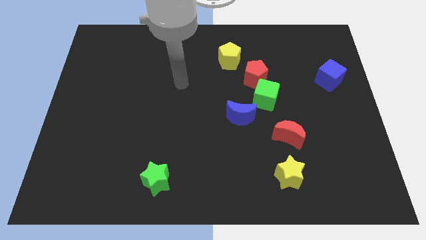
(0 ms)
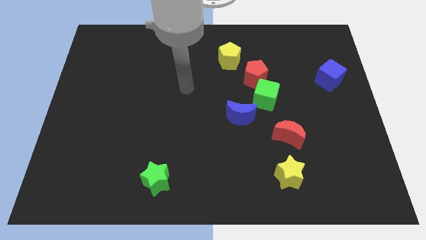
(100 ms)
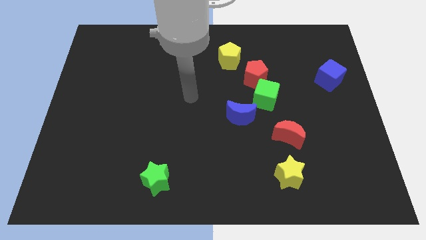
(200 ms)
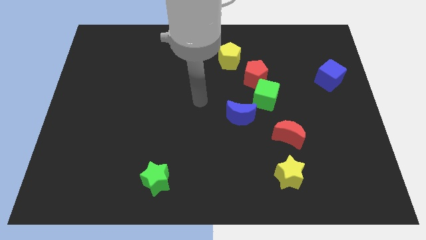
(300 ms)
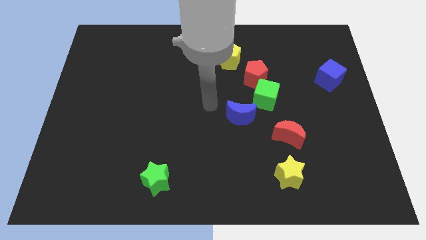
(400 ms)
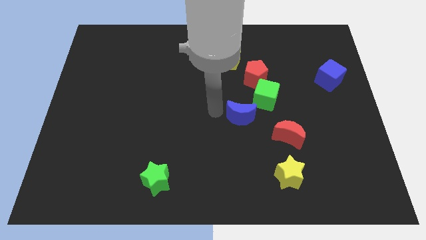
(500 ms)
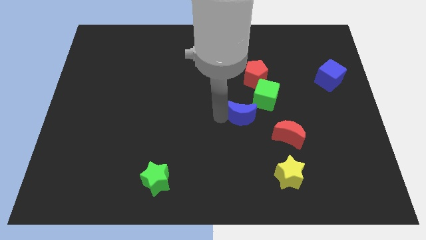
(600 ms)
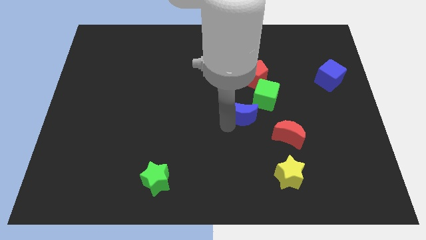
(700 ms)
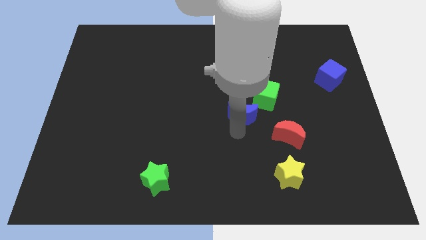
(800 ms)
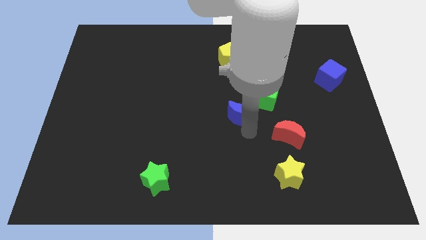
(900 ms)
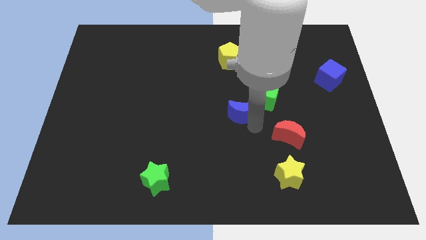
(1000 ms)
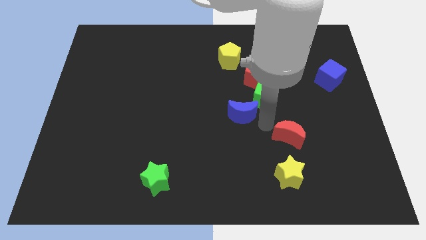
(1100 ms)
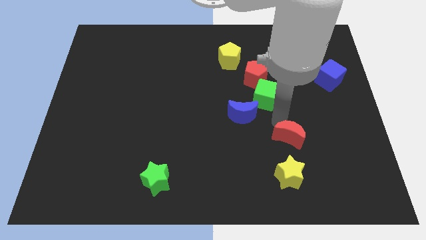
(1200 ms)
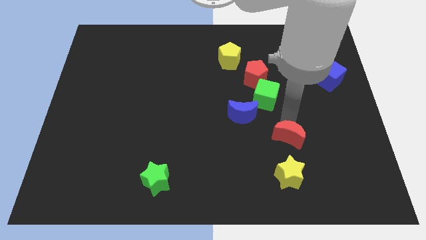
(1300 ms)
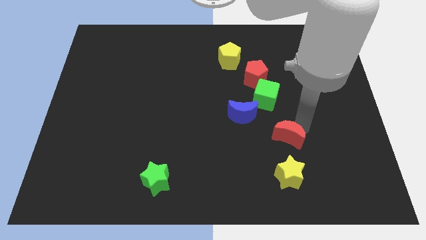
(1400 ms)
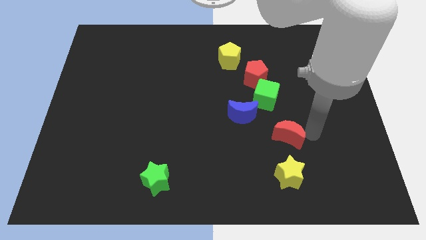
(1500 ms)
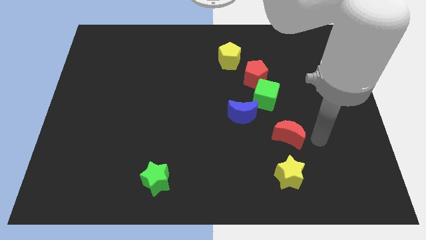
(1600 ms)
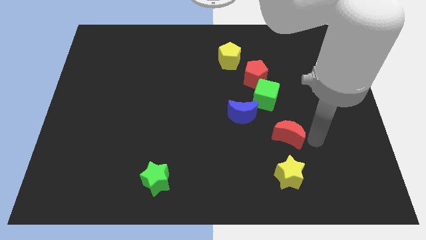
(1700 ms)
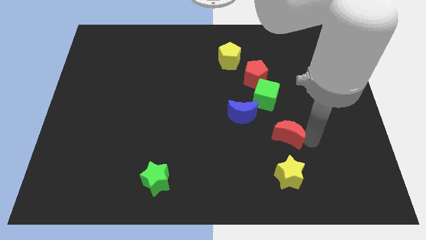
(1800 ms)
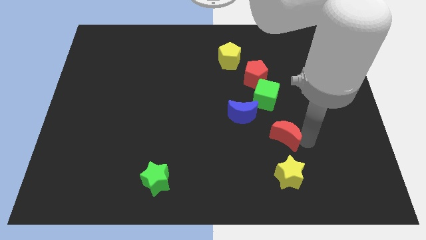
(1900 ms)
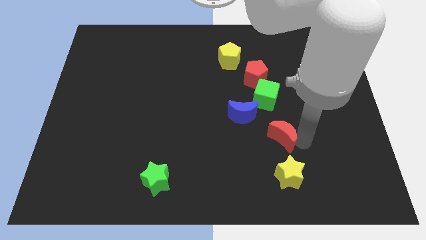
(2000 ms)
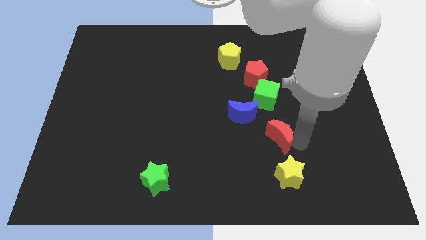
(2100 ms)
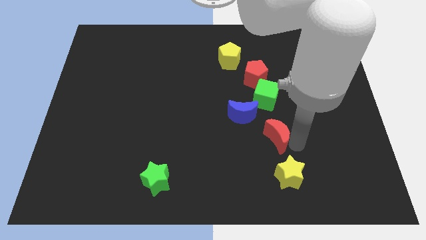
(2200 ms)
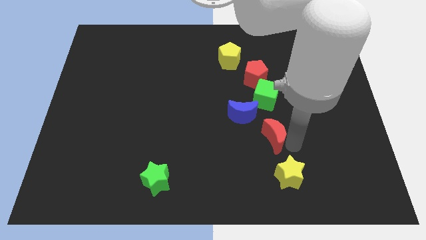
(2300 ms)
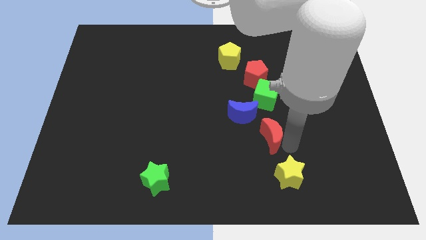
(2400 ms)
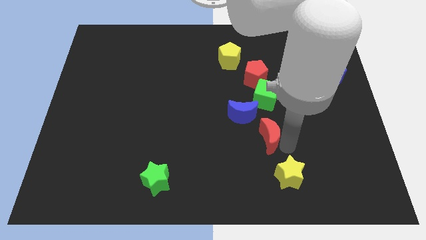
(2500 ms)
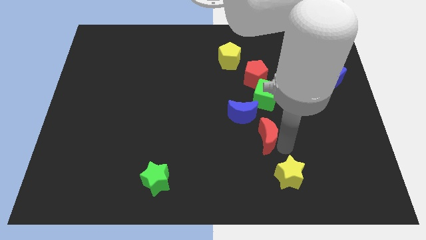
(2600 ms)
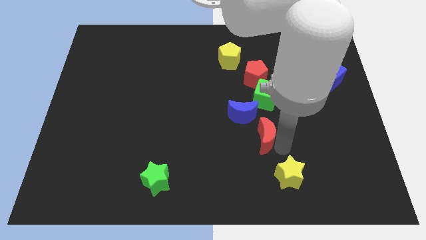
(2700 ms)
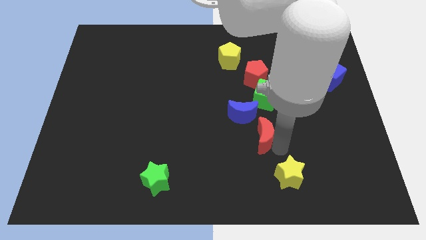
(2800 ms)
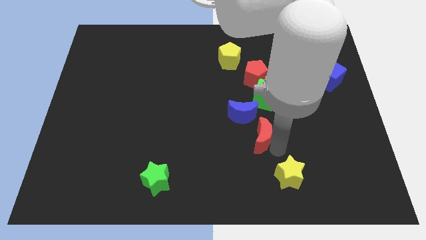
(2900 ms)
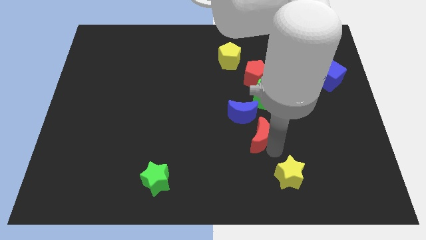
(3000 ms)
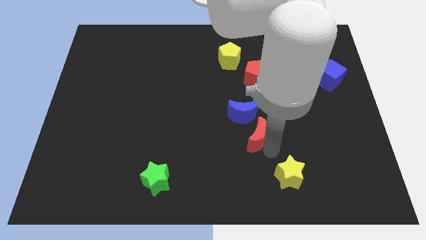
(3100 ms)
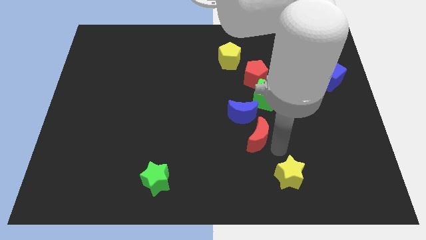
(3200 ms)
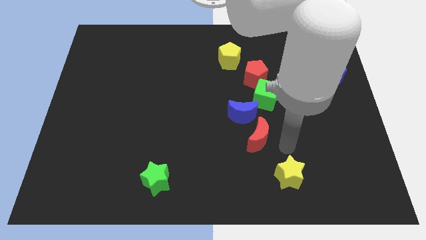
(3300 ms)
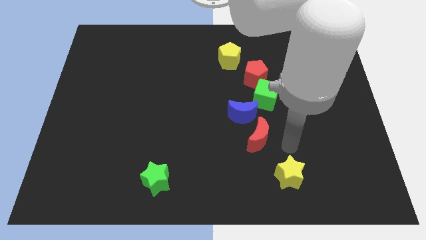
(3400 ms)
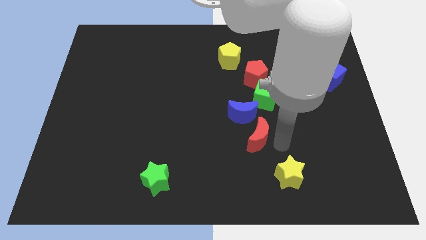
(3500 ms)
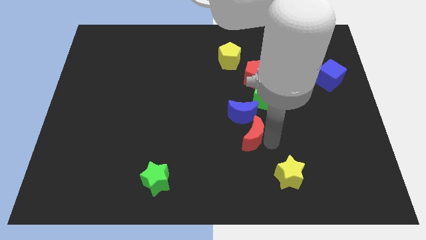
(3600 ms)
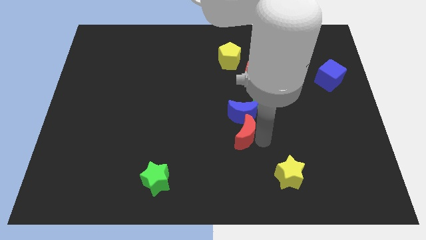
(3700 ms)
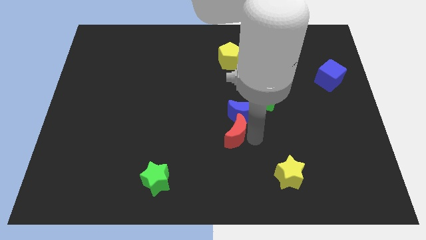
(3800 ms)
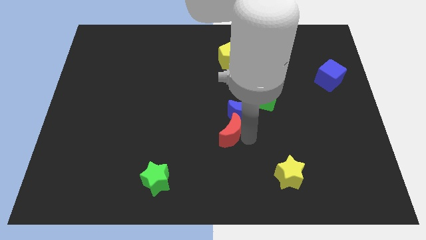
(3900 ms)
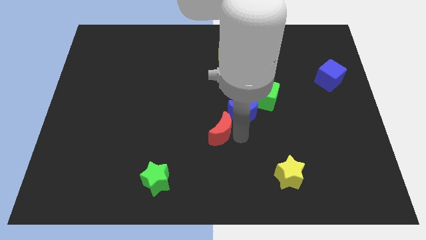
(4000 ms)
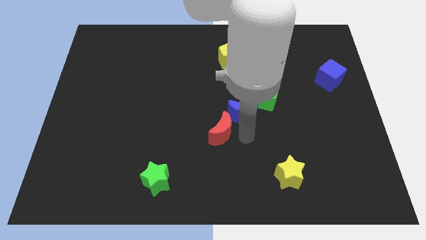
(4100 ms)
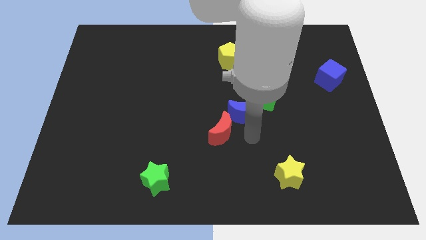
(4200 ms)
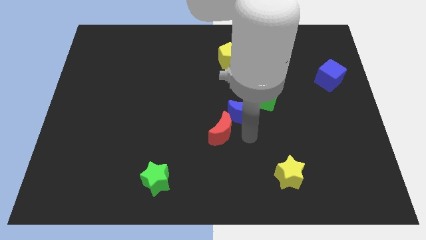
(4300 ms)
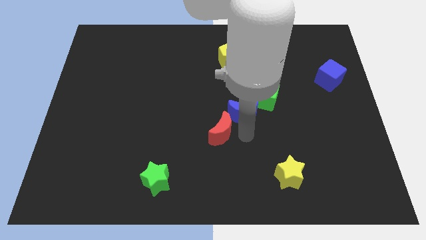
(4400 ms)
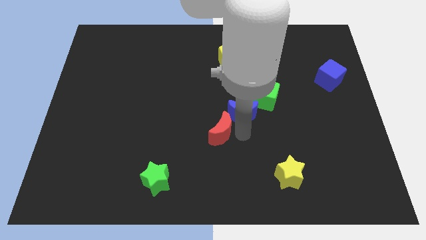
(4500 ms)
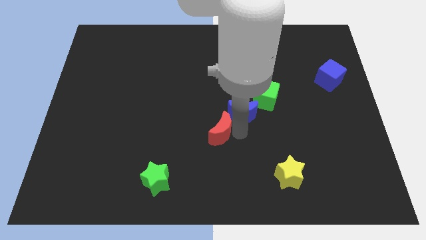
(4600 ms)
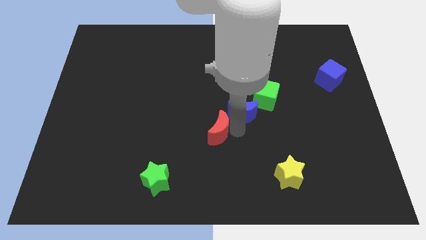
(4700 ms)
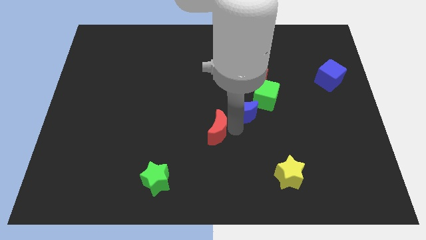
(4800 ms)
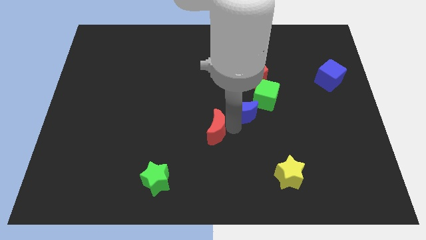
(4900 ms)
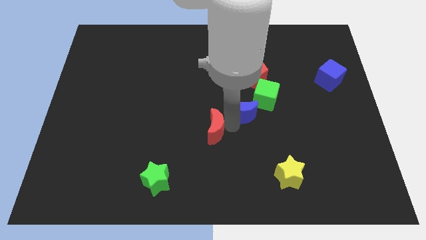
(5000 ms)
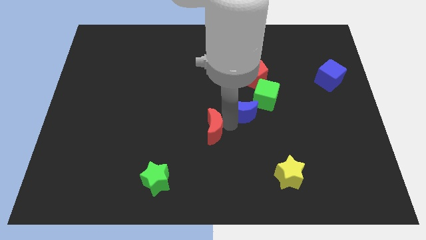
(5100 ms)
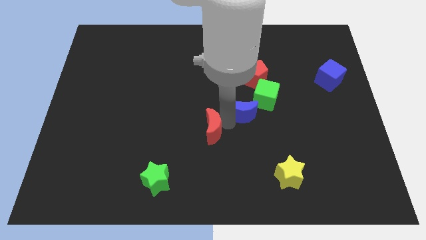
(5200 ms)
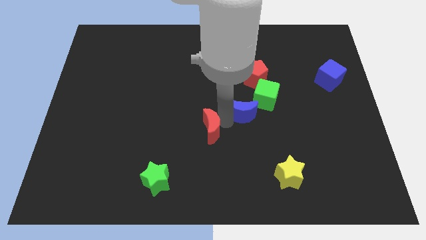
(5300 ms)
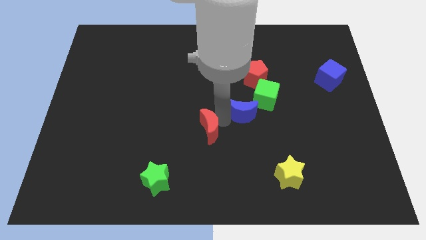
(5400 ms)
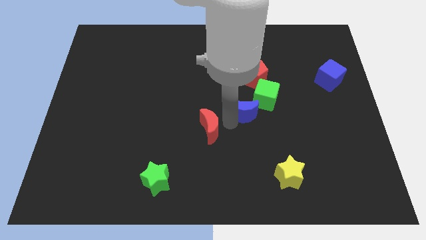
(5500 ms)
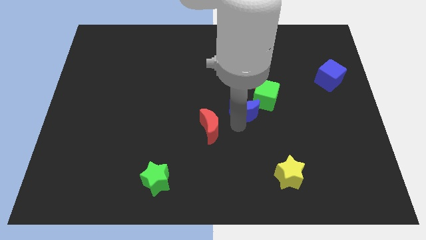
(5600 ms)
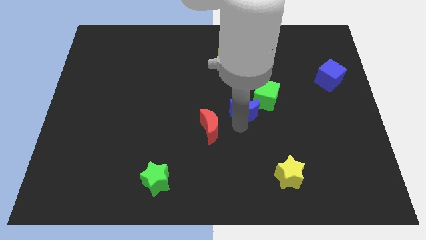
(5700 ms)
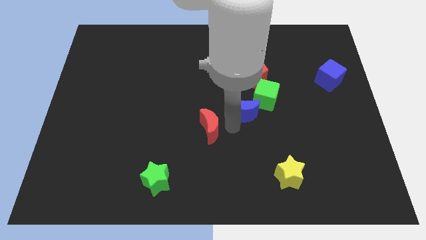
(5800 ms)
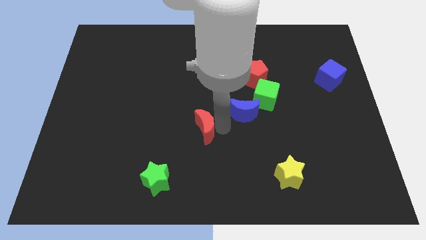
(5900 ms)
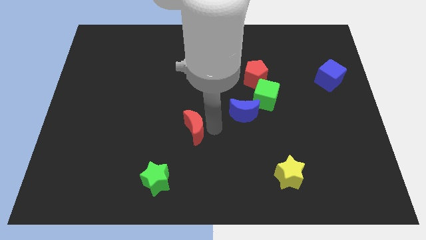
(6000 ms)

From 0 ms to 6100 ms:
push the red moon left

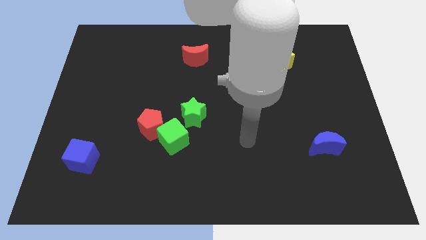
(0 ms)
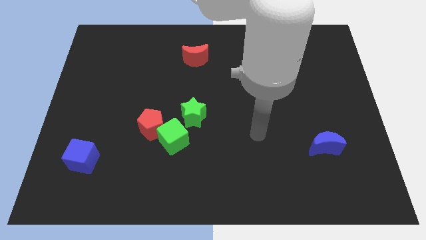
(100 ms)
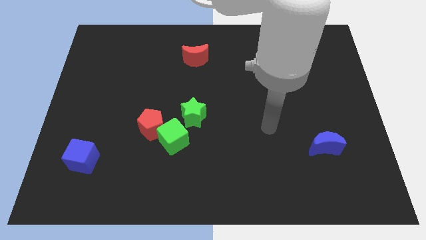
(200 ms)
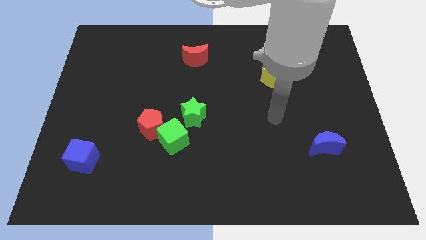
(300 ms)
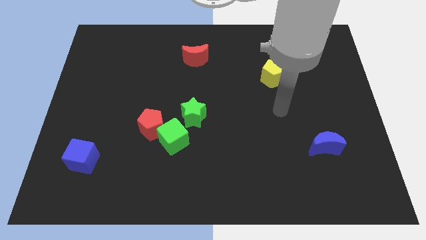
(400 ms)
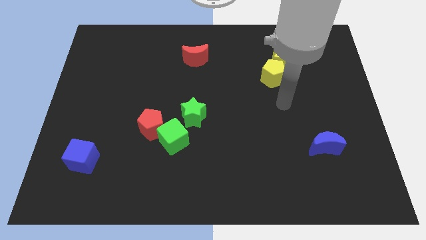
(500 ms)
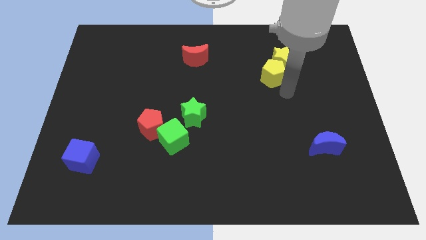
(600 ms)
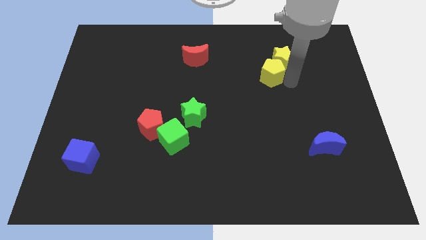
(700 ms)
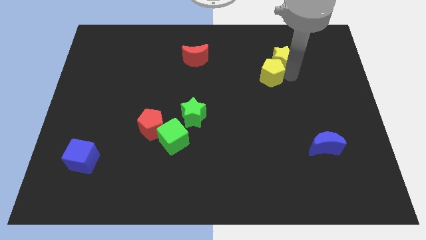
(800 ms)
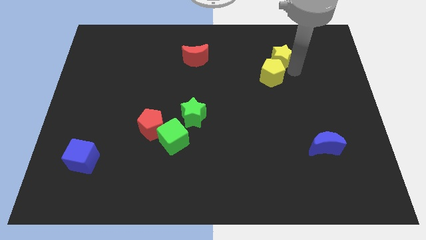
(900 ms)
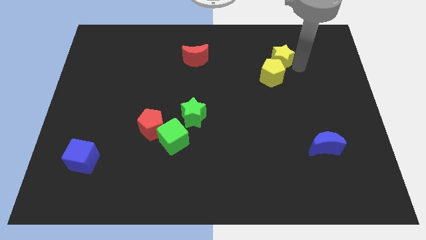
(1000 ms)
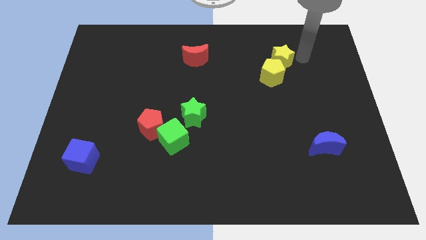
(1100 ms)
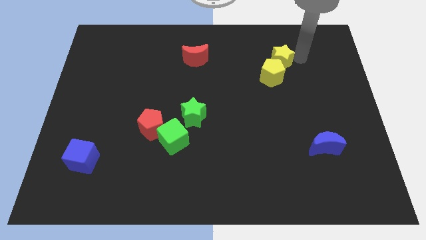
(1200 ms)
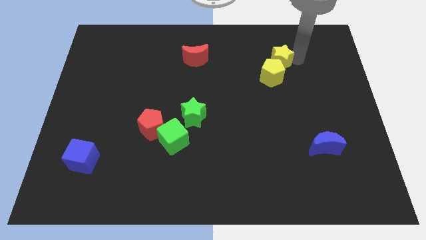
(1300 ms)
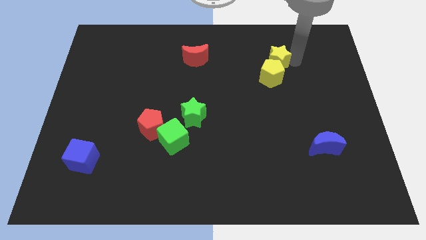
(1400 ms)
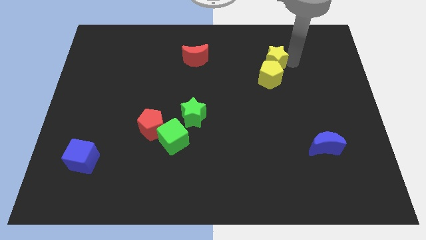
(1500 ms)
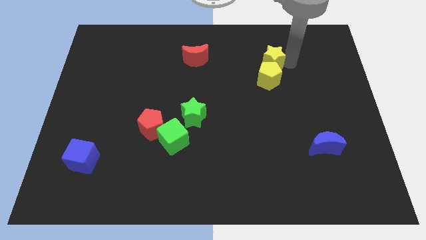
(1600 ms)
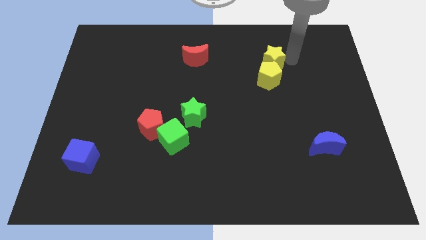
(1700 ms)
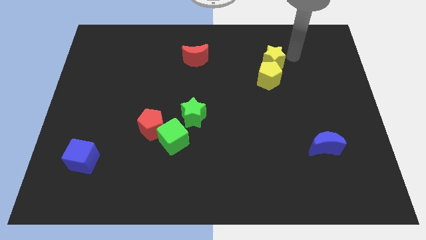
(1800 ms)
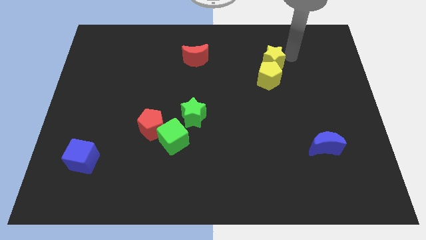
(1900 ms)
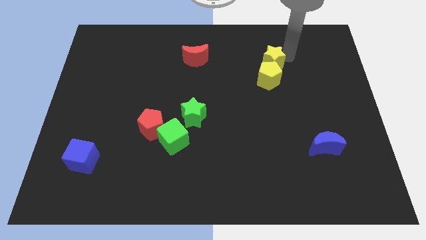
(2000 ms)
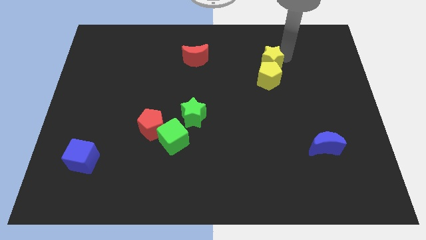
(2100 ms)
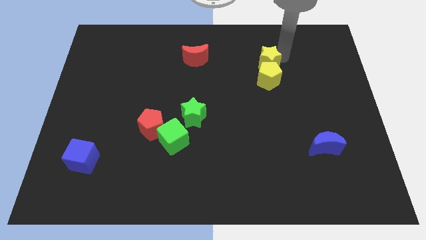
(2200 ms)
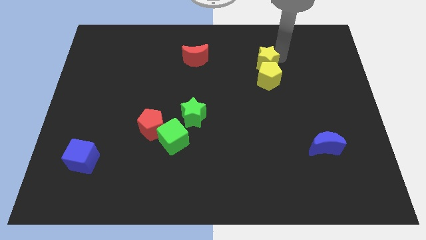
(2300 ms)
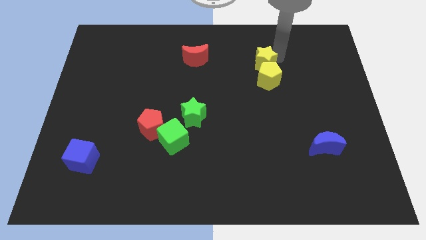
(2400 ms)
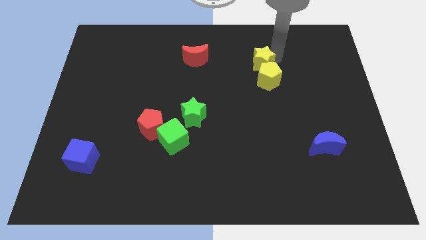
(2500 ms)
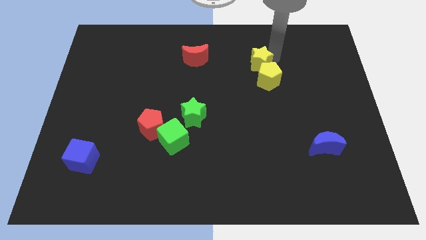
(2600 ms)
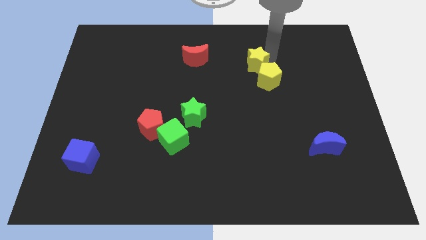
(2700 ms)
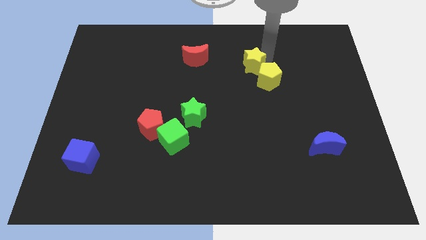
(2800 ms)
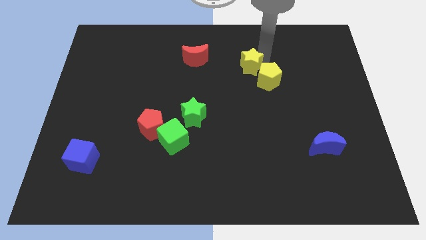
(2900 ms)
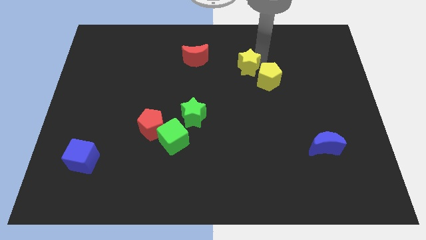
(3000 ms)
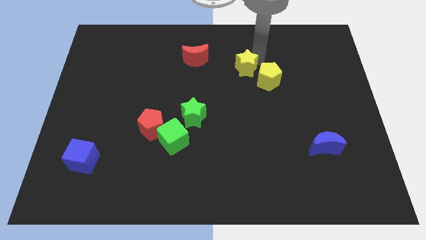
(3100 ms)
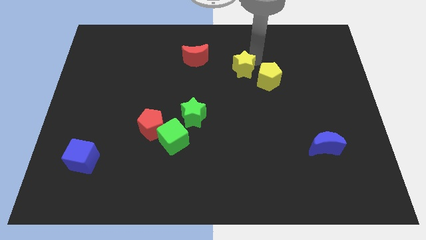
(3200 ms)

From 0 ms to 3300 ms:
slightly slide the yellow star diagonally downwards and to the left
